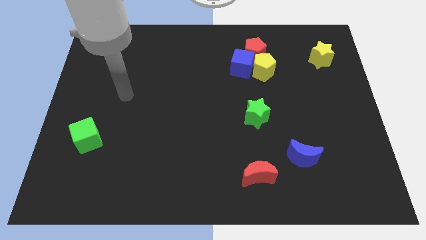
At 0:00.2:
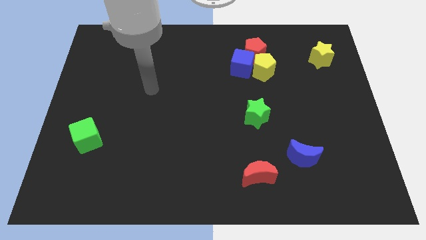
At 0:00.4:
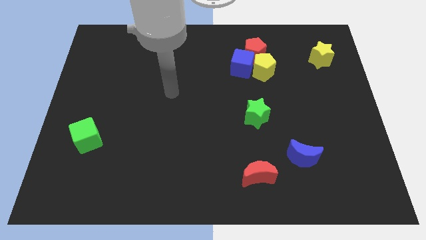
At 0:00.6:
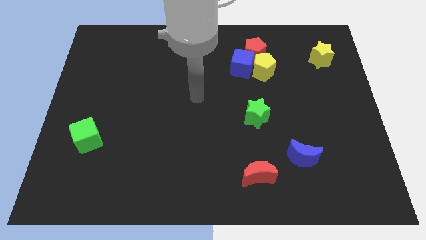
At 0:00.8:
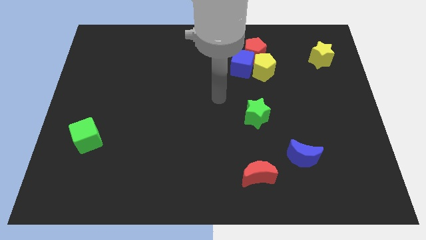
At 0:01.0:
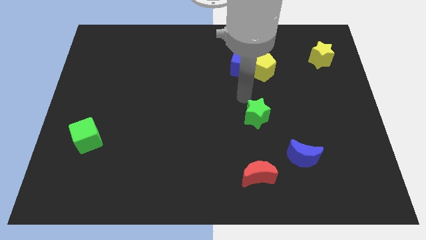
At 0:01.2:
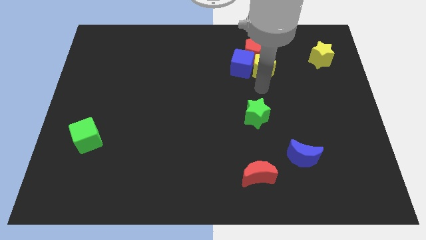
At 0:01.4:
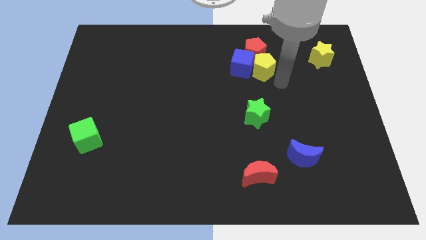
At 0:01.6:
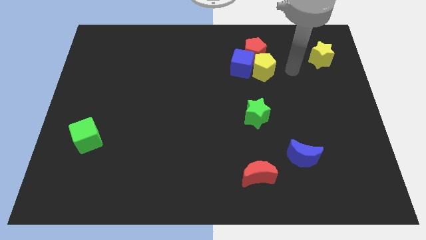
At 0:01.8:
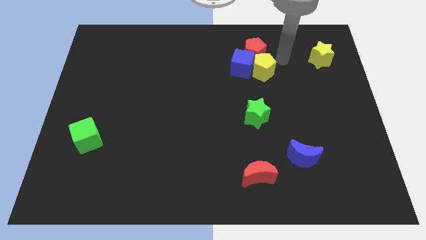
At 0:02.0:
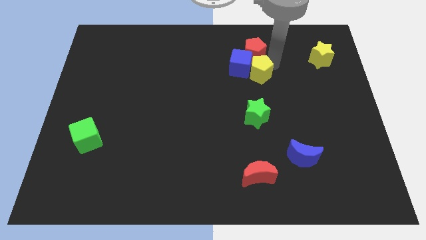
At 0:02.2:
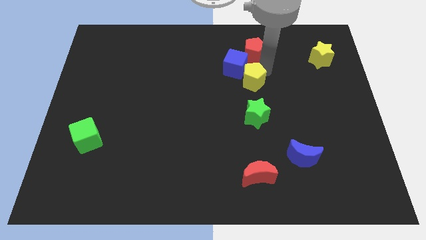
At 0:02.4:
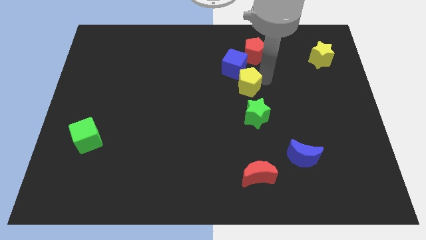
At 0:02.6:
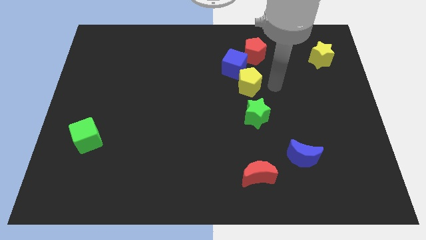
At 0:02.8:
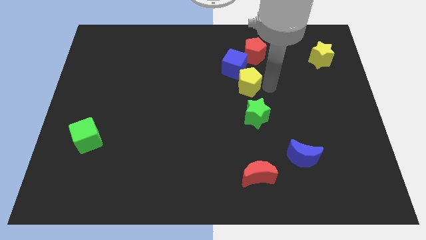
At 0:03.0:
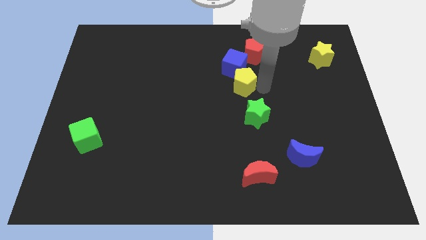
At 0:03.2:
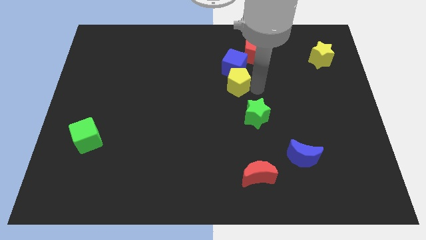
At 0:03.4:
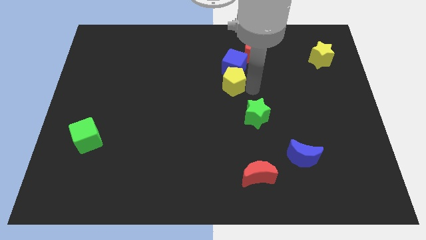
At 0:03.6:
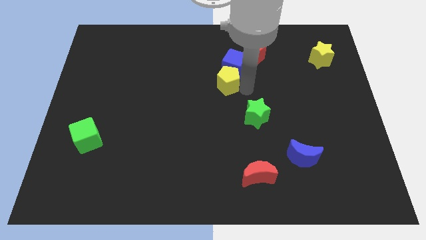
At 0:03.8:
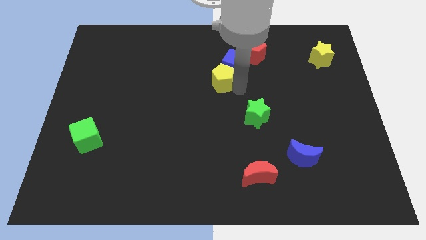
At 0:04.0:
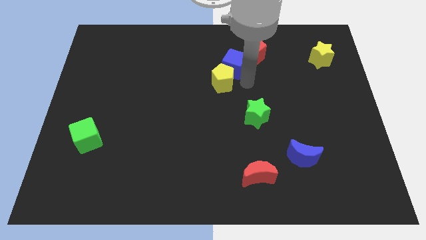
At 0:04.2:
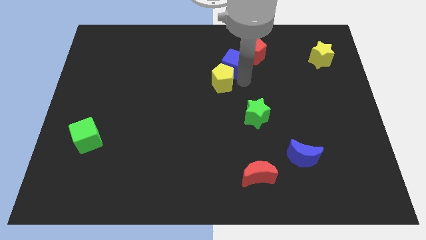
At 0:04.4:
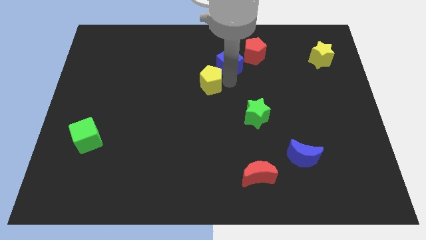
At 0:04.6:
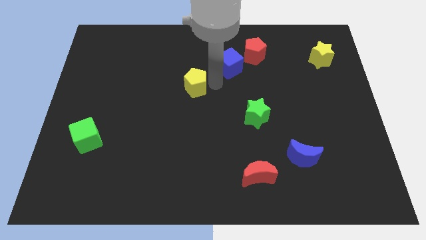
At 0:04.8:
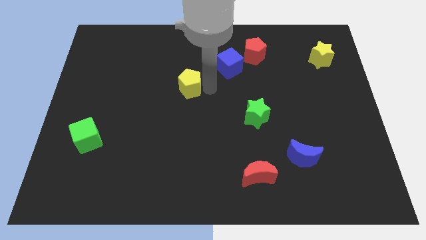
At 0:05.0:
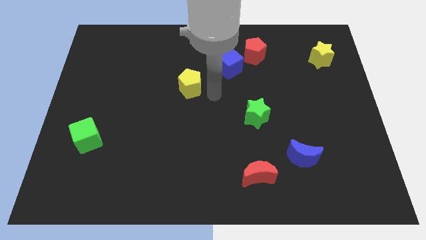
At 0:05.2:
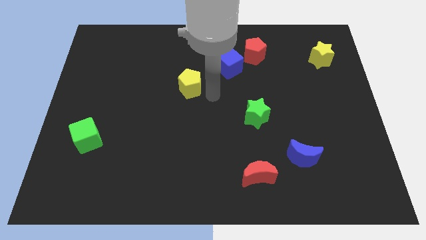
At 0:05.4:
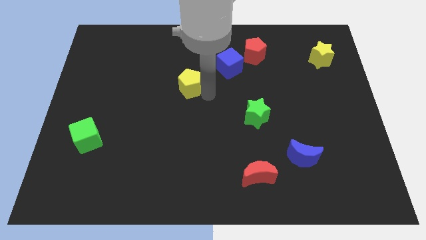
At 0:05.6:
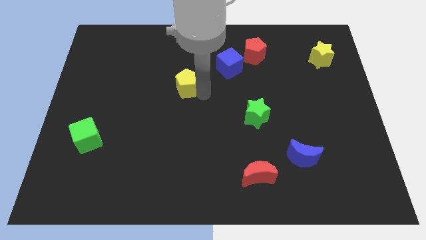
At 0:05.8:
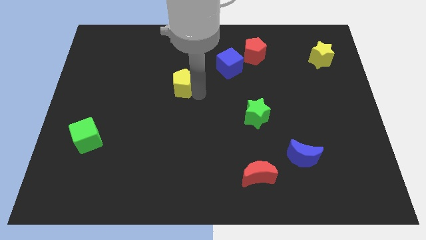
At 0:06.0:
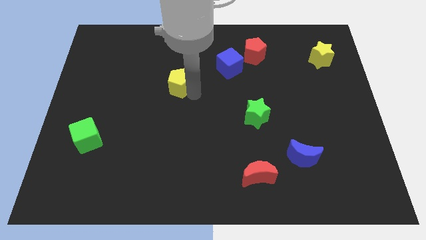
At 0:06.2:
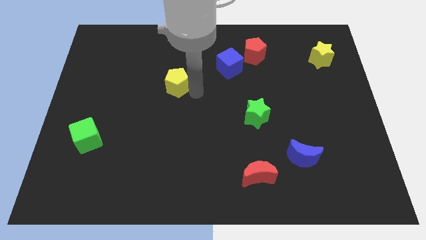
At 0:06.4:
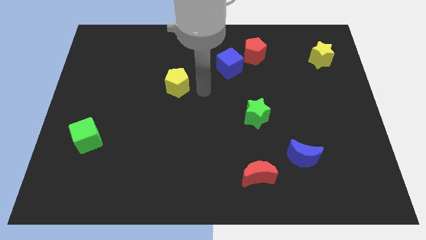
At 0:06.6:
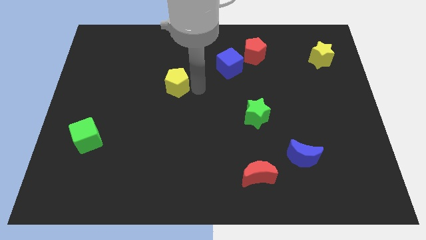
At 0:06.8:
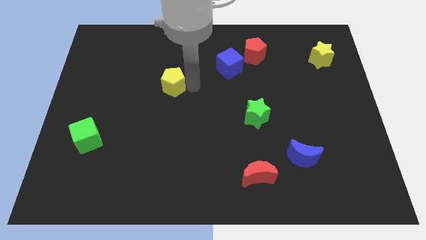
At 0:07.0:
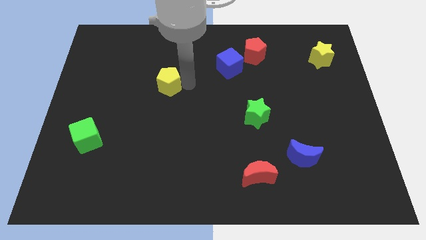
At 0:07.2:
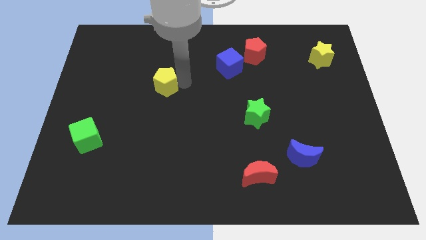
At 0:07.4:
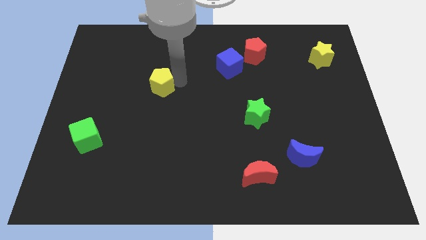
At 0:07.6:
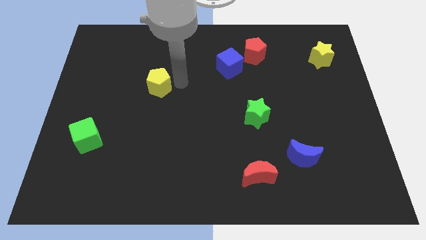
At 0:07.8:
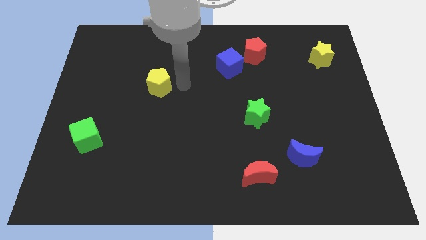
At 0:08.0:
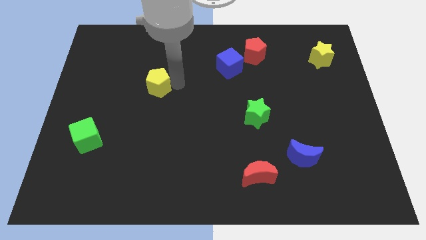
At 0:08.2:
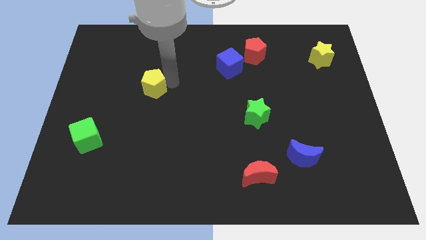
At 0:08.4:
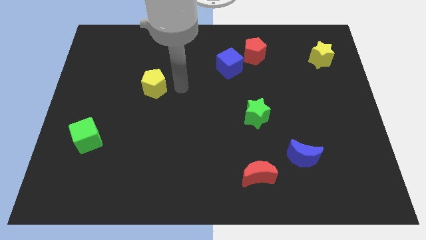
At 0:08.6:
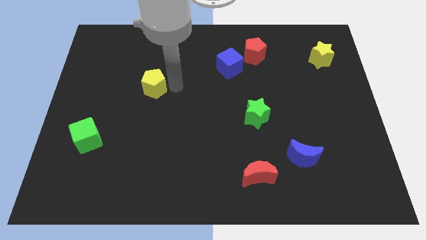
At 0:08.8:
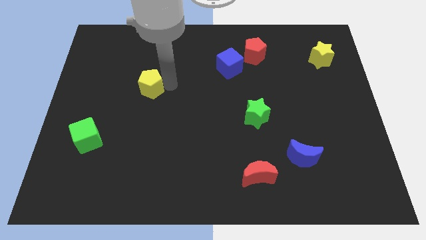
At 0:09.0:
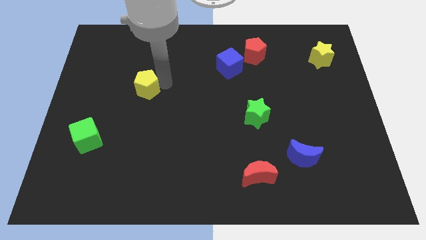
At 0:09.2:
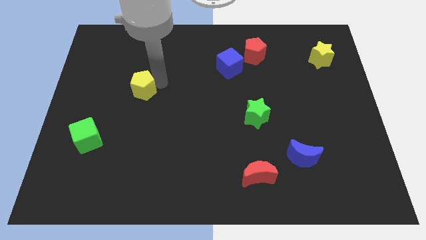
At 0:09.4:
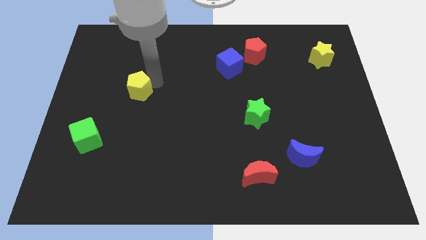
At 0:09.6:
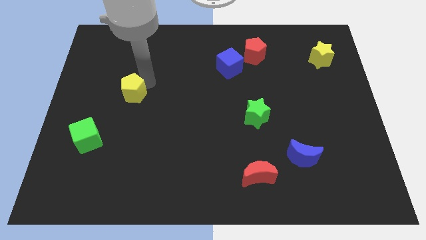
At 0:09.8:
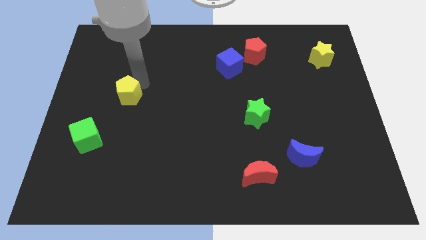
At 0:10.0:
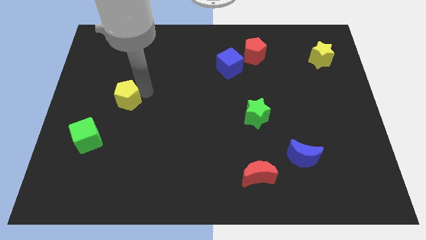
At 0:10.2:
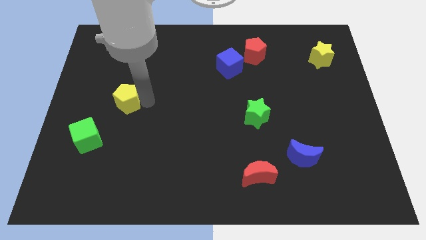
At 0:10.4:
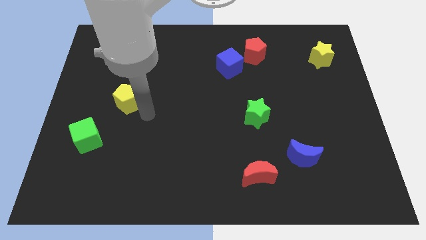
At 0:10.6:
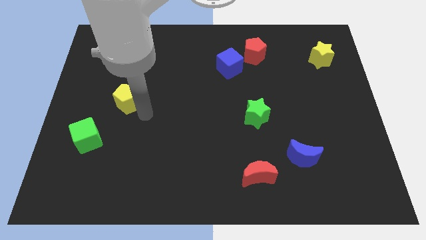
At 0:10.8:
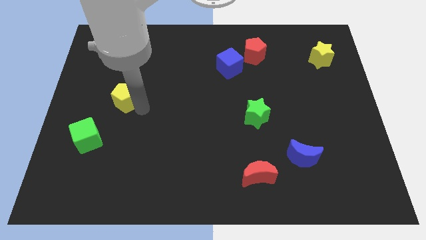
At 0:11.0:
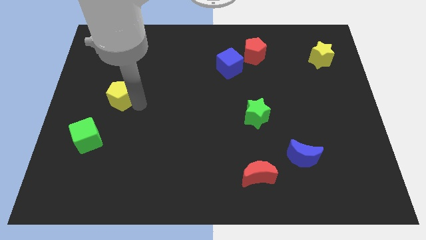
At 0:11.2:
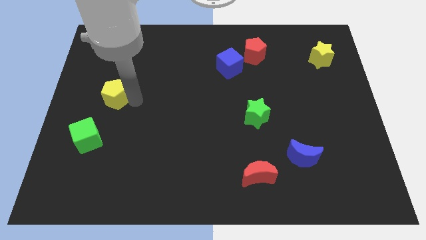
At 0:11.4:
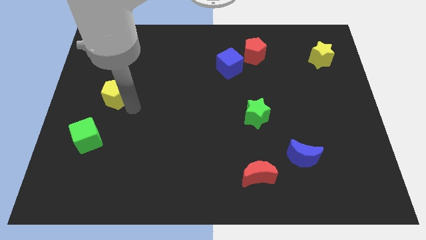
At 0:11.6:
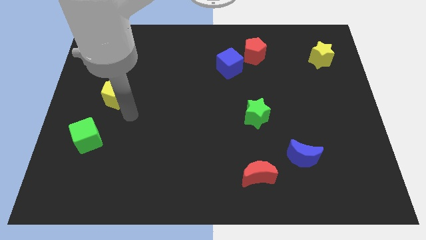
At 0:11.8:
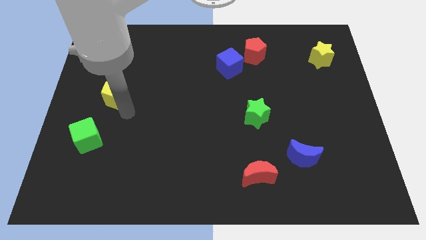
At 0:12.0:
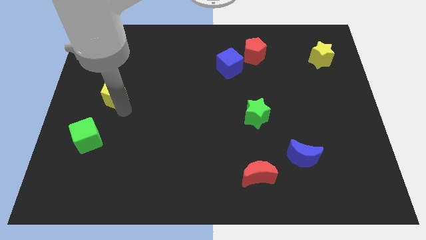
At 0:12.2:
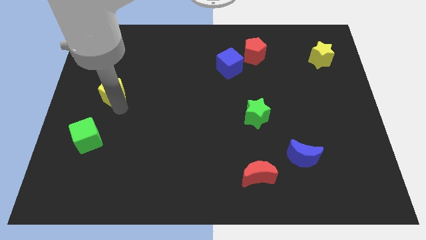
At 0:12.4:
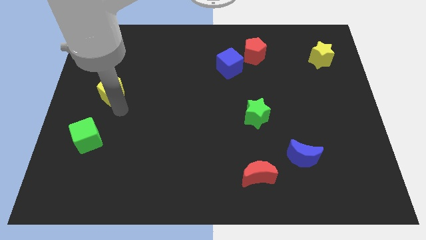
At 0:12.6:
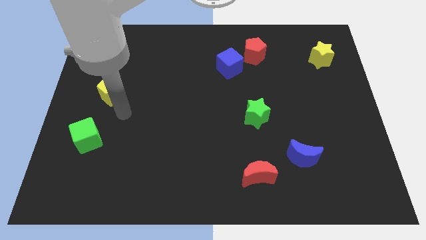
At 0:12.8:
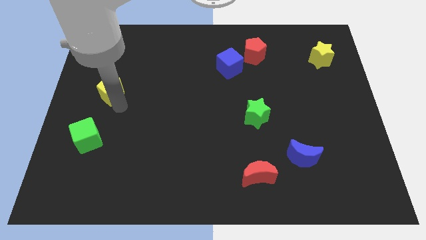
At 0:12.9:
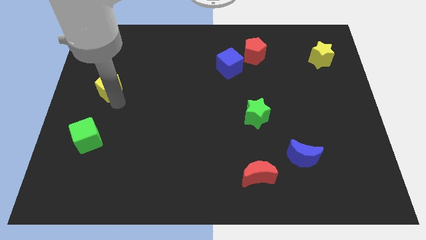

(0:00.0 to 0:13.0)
push the yellow pentagon to the center left

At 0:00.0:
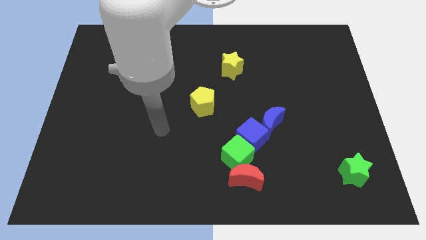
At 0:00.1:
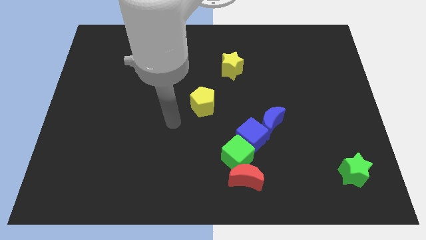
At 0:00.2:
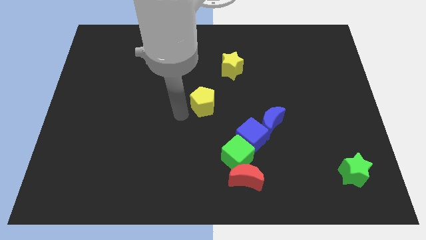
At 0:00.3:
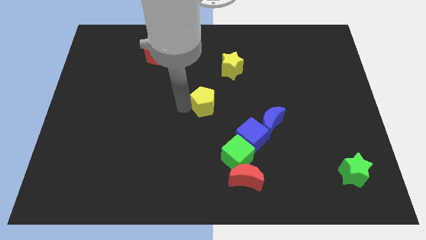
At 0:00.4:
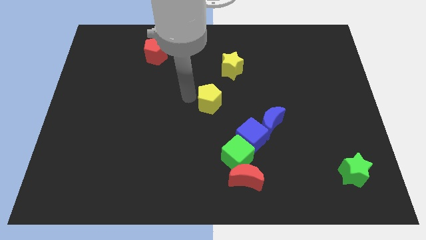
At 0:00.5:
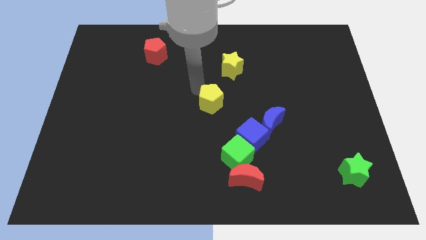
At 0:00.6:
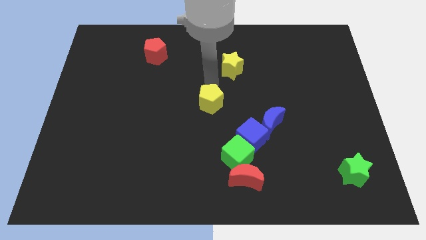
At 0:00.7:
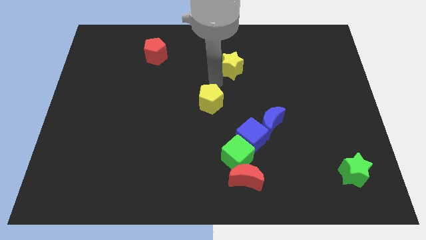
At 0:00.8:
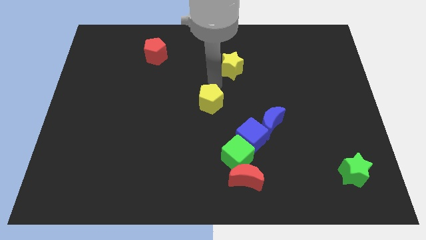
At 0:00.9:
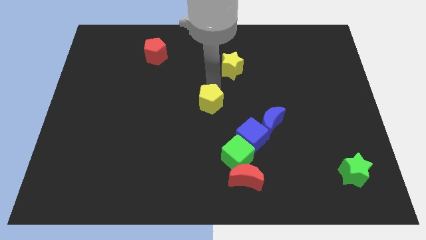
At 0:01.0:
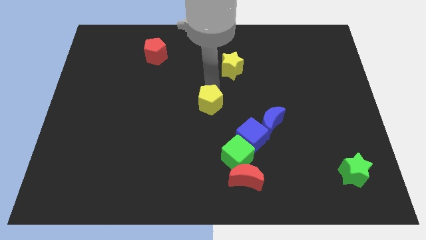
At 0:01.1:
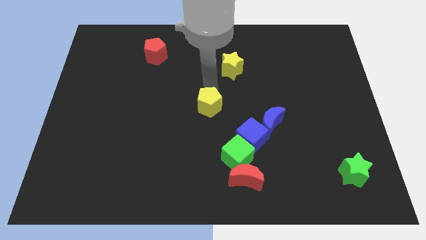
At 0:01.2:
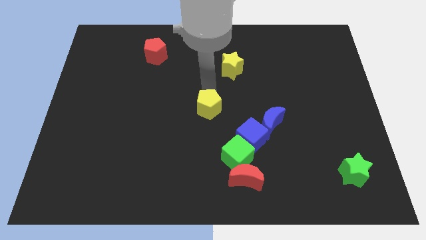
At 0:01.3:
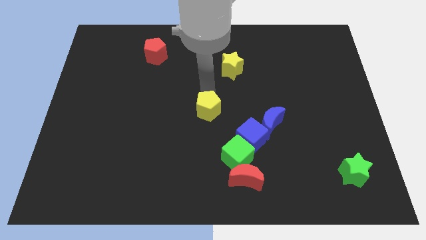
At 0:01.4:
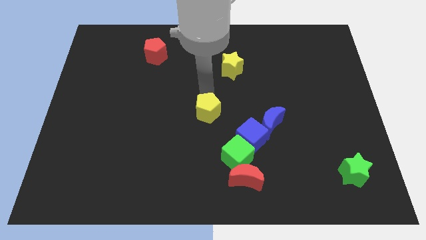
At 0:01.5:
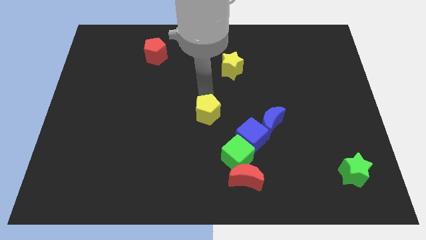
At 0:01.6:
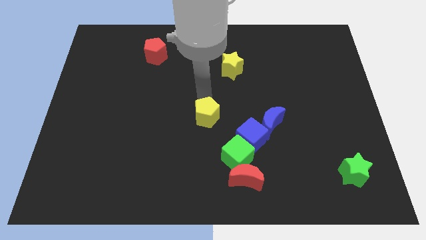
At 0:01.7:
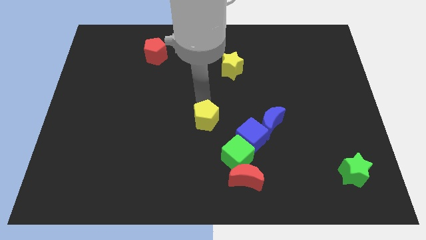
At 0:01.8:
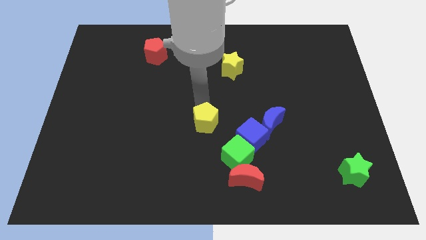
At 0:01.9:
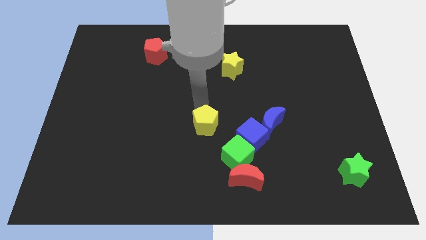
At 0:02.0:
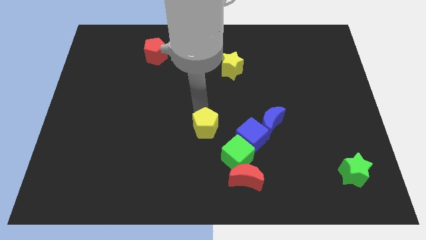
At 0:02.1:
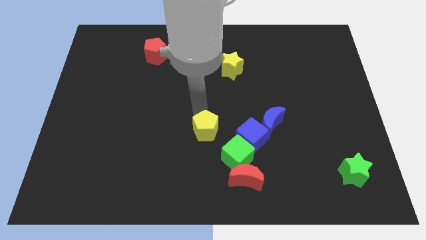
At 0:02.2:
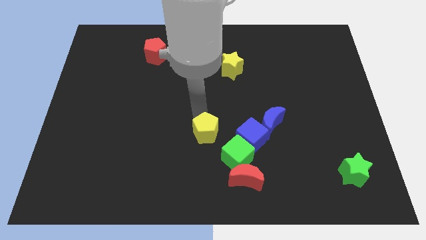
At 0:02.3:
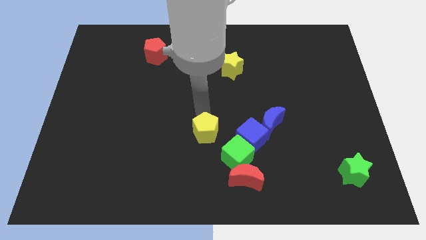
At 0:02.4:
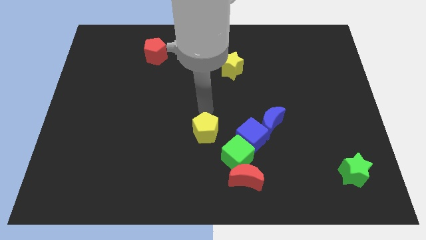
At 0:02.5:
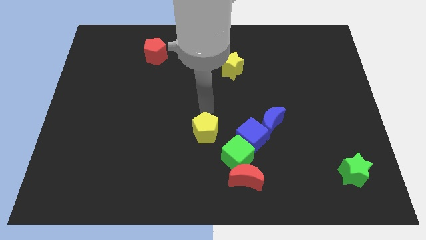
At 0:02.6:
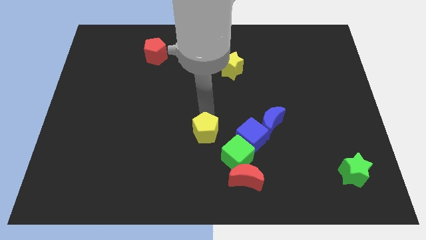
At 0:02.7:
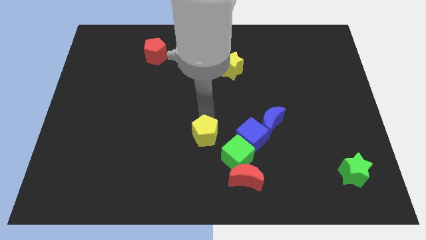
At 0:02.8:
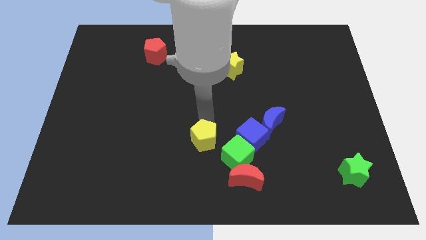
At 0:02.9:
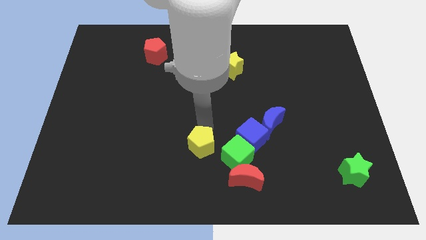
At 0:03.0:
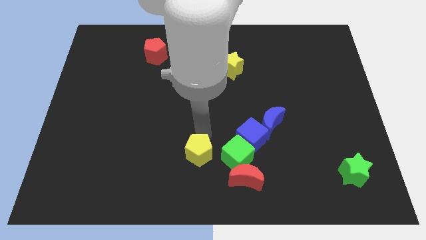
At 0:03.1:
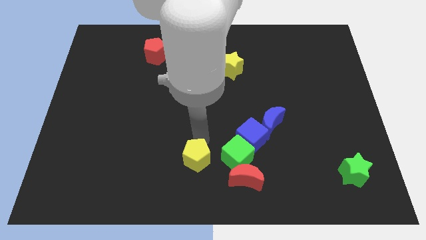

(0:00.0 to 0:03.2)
move the yellow pentagon to the bottom side
